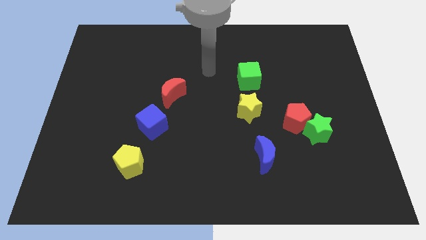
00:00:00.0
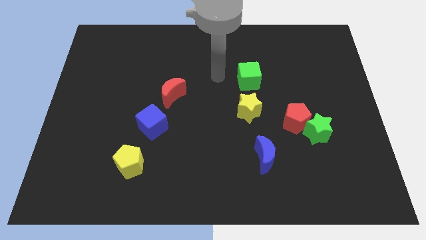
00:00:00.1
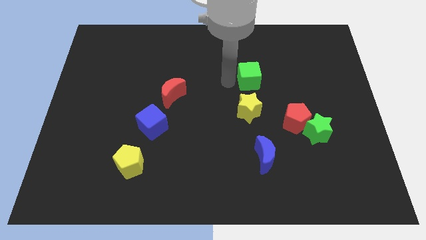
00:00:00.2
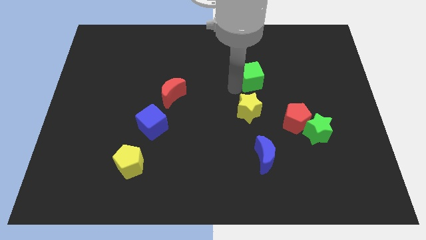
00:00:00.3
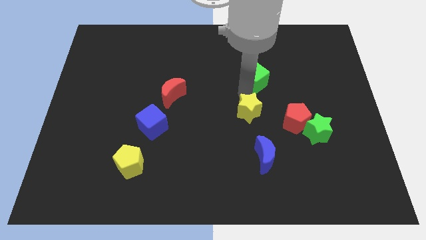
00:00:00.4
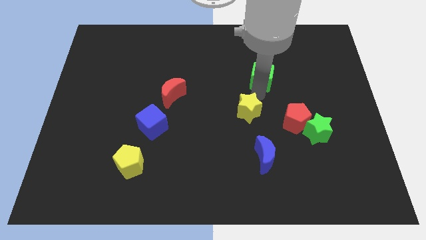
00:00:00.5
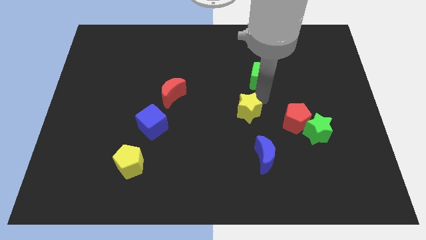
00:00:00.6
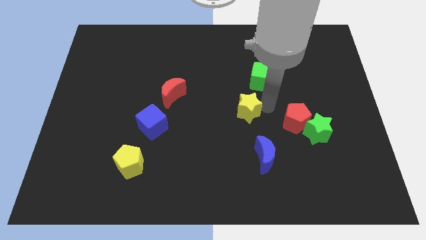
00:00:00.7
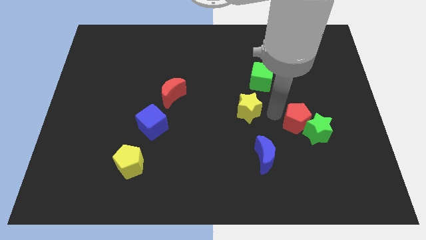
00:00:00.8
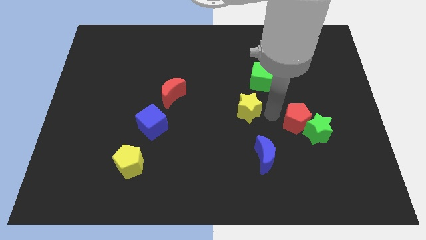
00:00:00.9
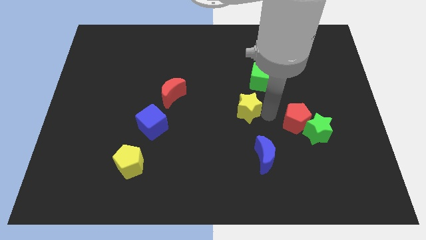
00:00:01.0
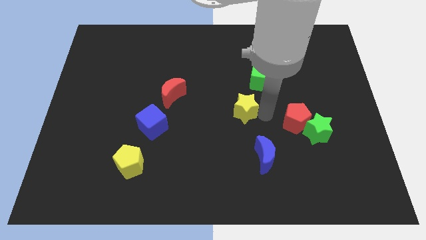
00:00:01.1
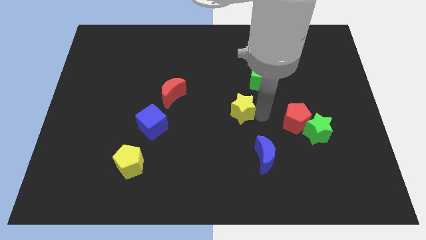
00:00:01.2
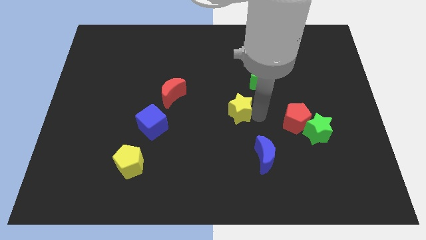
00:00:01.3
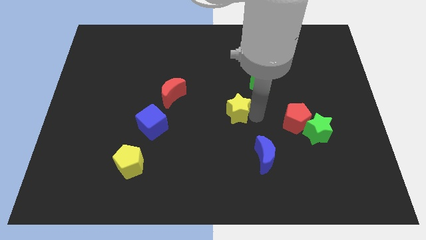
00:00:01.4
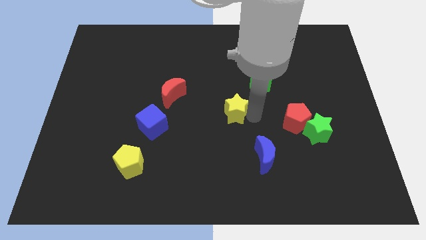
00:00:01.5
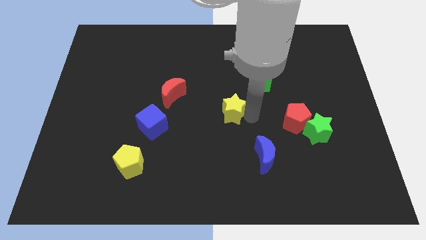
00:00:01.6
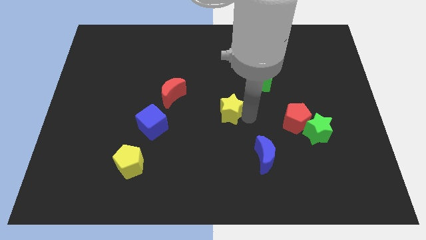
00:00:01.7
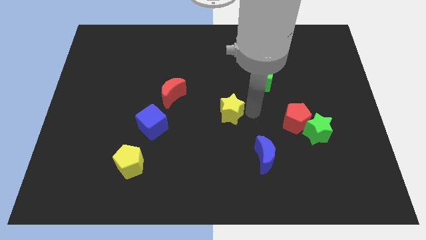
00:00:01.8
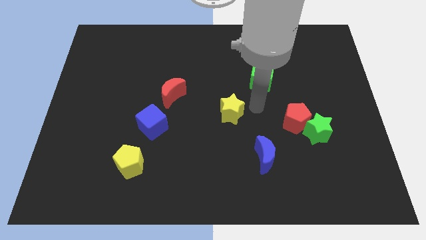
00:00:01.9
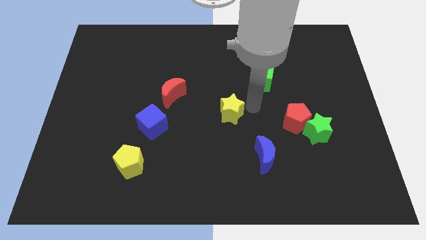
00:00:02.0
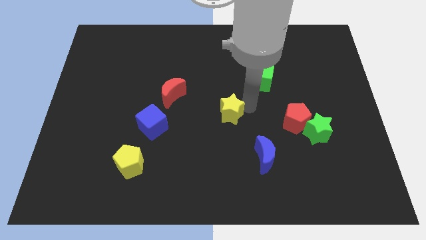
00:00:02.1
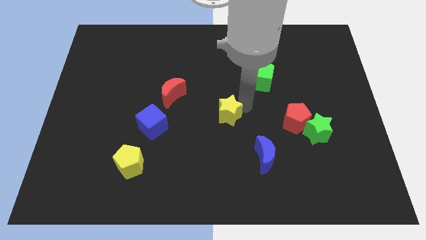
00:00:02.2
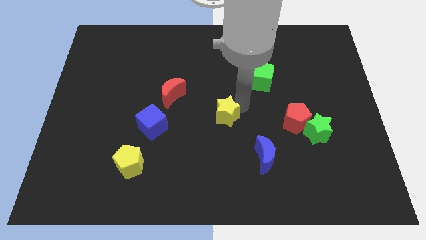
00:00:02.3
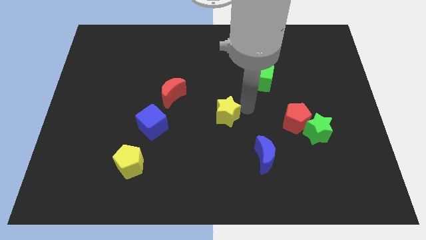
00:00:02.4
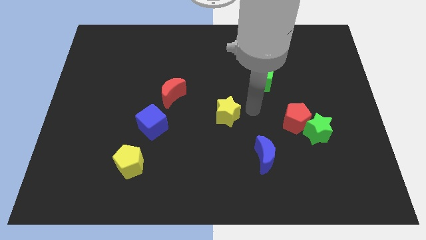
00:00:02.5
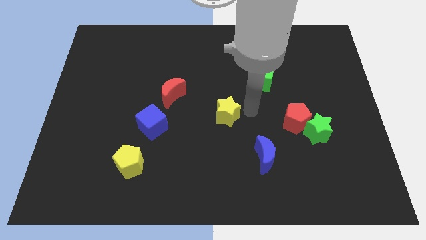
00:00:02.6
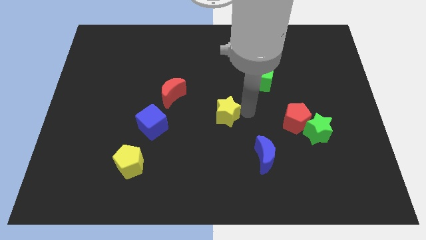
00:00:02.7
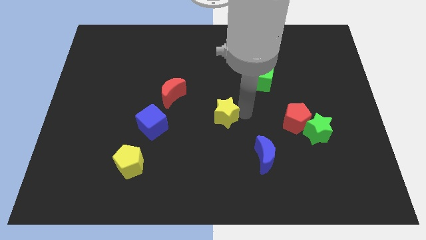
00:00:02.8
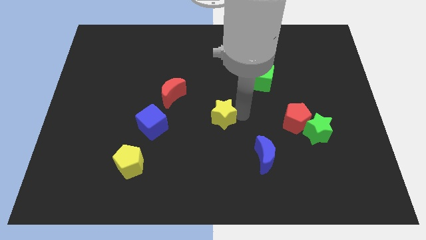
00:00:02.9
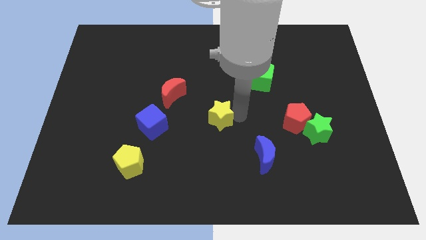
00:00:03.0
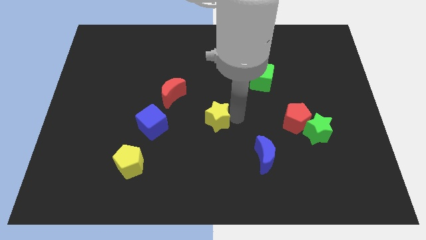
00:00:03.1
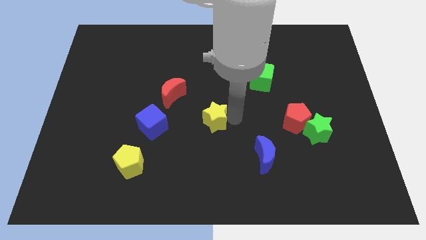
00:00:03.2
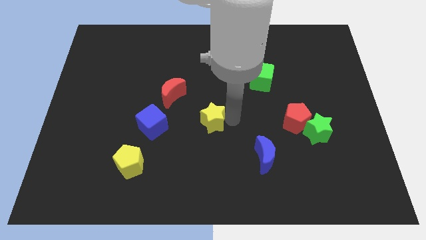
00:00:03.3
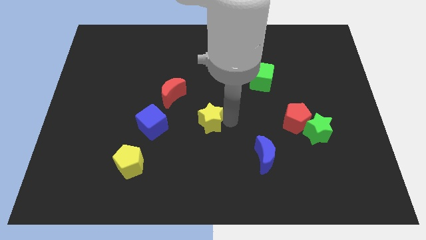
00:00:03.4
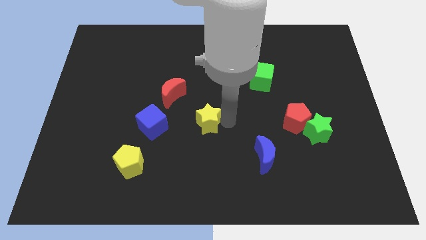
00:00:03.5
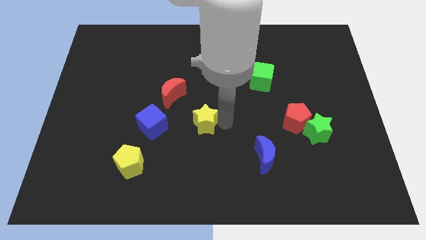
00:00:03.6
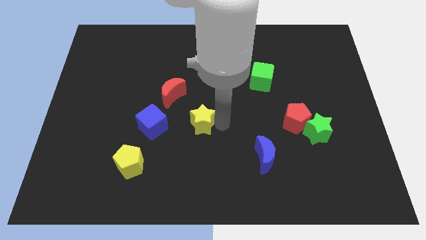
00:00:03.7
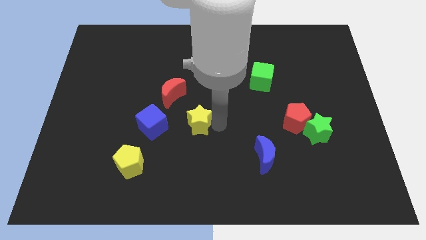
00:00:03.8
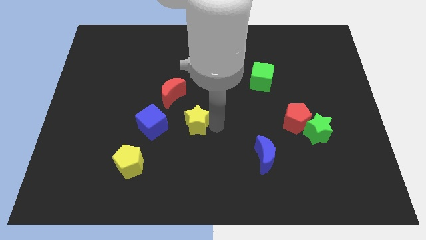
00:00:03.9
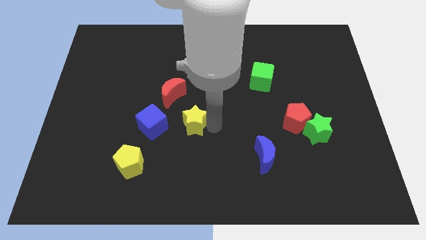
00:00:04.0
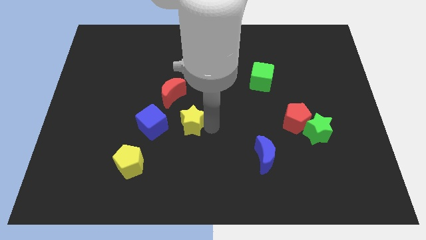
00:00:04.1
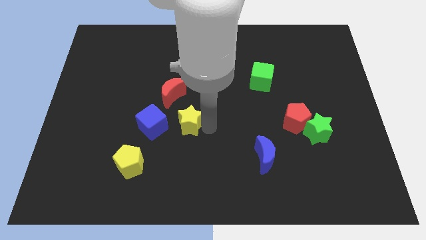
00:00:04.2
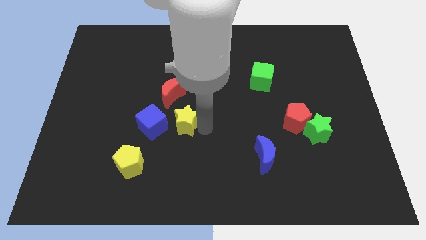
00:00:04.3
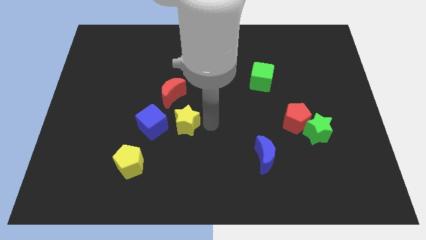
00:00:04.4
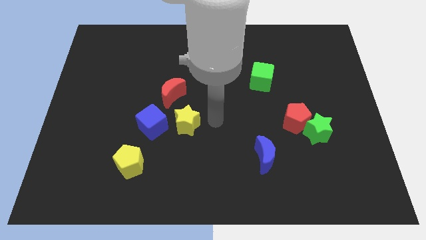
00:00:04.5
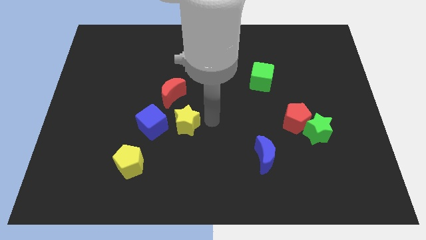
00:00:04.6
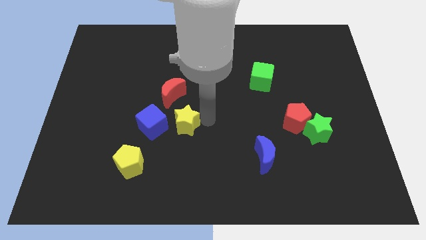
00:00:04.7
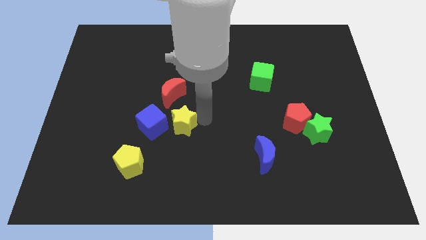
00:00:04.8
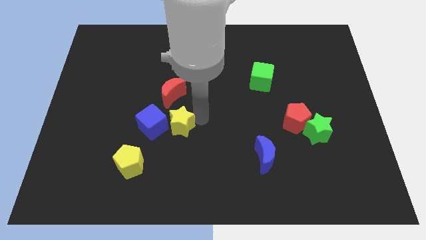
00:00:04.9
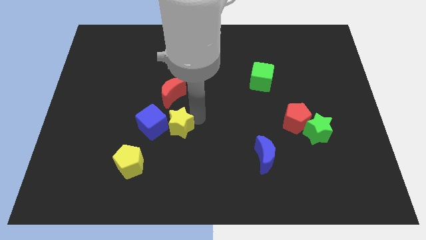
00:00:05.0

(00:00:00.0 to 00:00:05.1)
put the yellow star close to the blue cube
